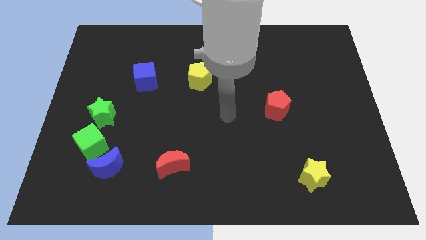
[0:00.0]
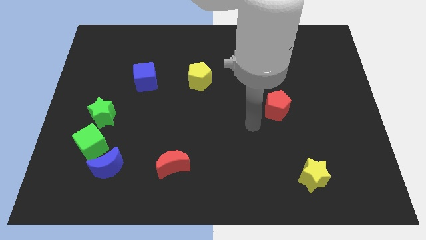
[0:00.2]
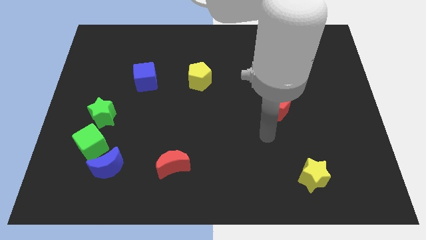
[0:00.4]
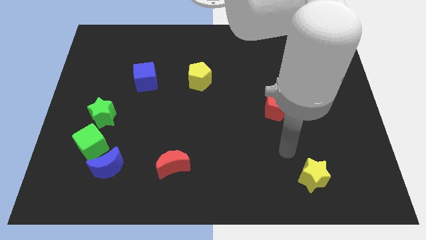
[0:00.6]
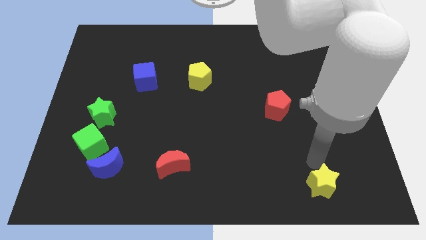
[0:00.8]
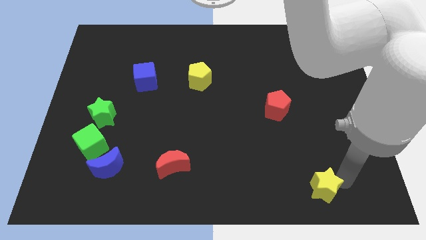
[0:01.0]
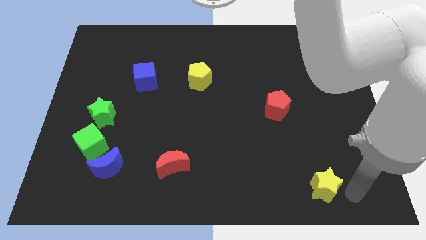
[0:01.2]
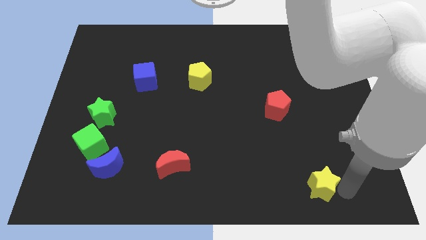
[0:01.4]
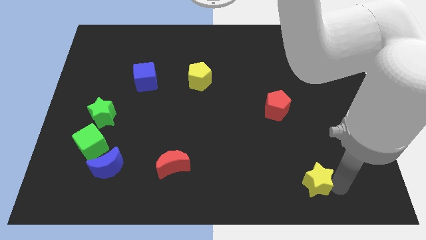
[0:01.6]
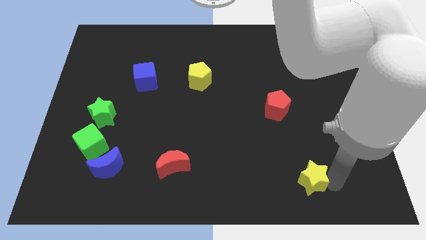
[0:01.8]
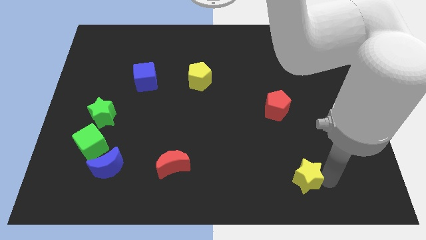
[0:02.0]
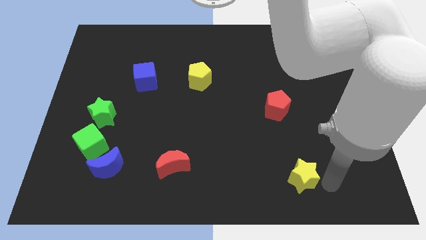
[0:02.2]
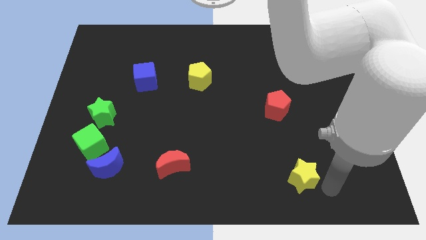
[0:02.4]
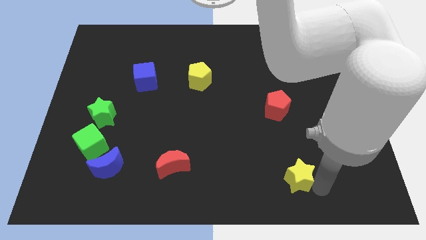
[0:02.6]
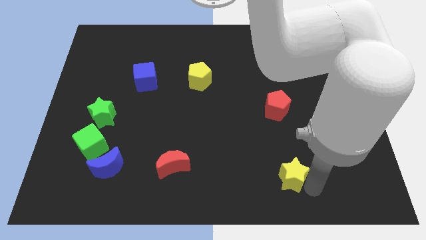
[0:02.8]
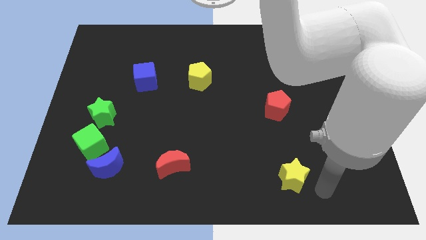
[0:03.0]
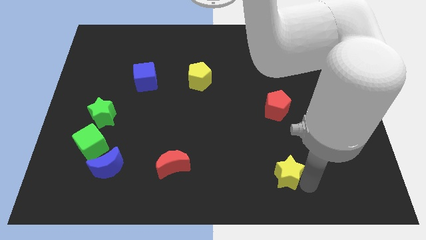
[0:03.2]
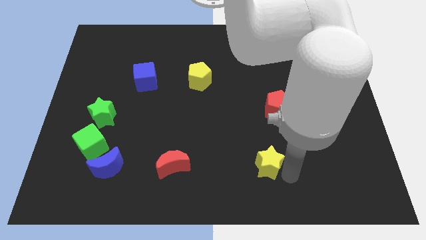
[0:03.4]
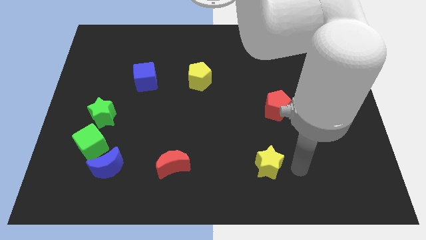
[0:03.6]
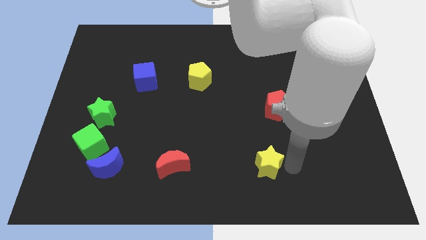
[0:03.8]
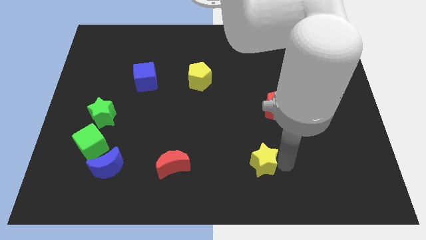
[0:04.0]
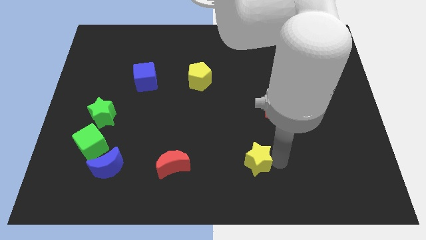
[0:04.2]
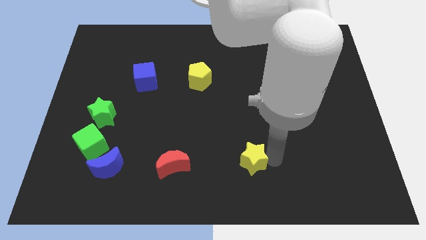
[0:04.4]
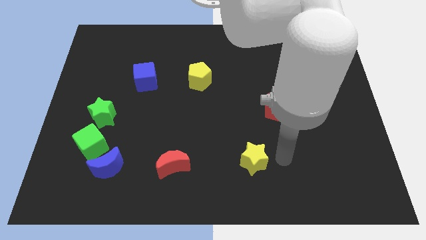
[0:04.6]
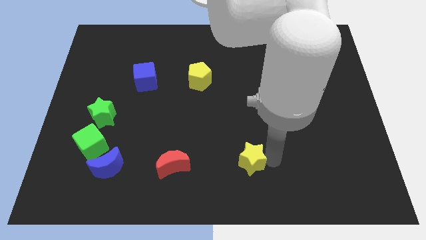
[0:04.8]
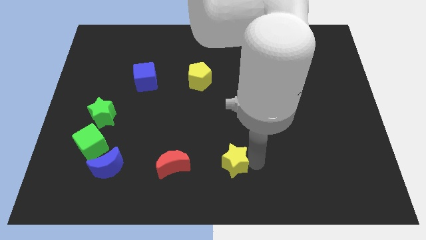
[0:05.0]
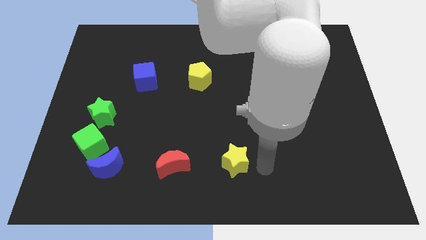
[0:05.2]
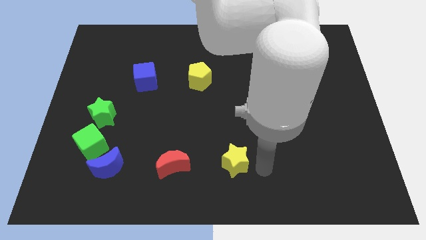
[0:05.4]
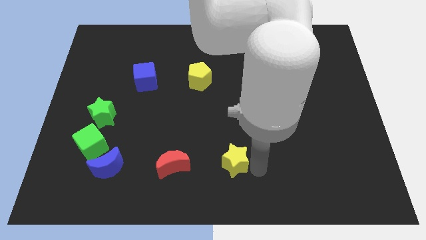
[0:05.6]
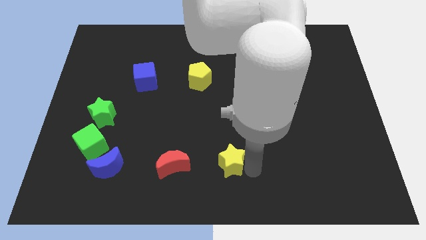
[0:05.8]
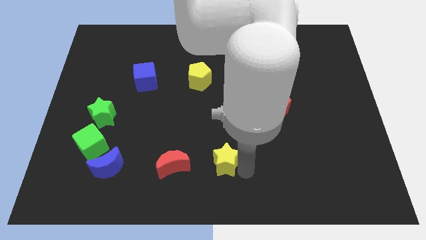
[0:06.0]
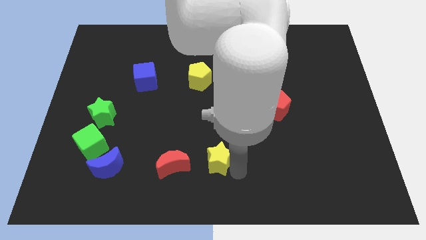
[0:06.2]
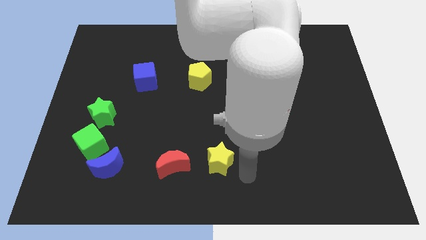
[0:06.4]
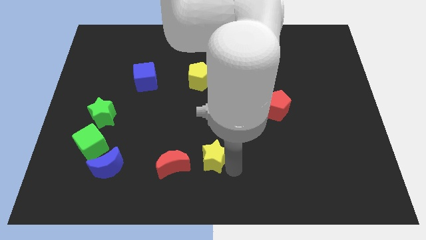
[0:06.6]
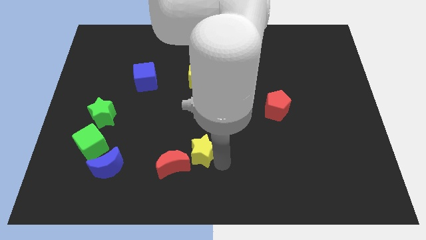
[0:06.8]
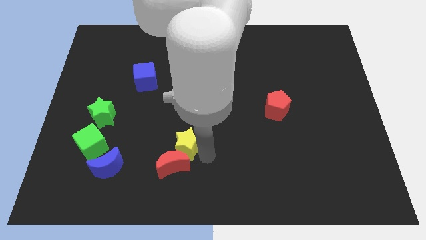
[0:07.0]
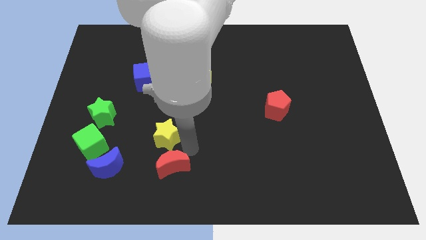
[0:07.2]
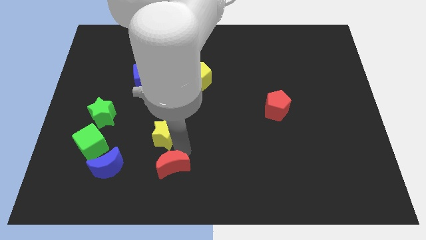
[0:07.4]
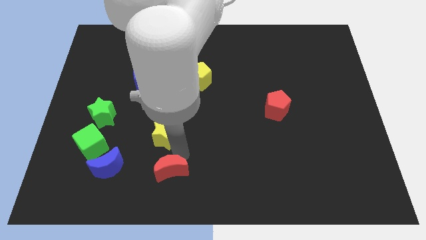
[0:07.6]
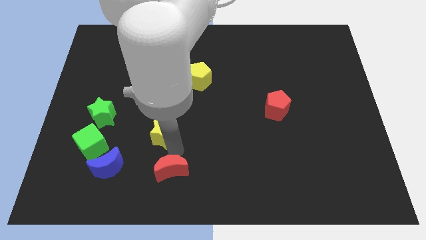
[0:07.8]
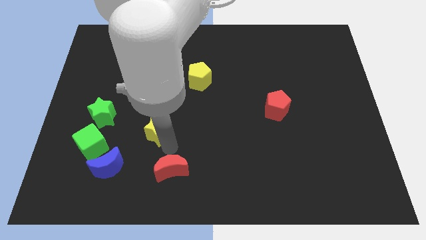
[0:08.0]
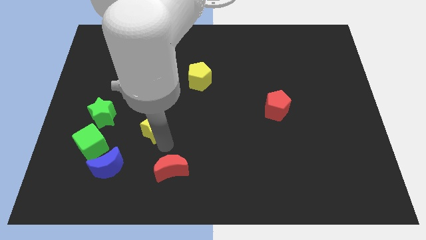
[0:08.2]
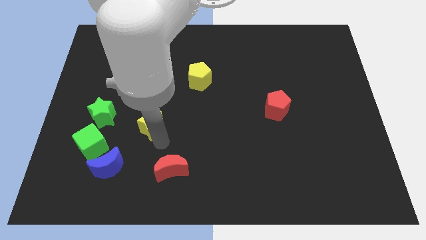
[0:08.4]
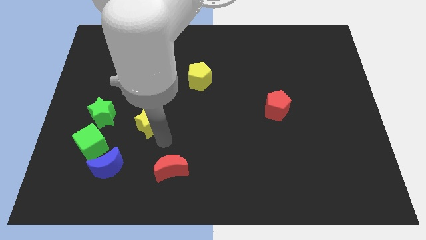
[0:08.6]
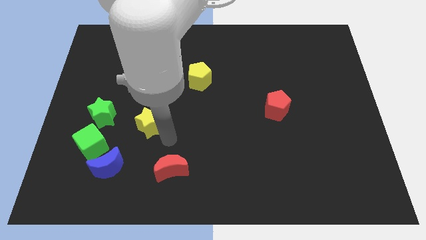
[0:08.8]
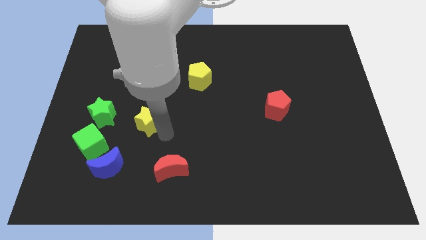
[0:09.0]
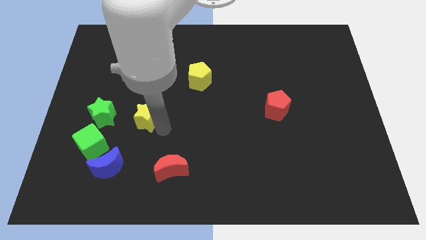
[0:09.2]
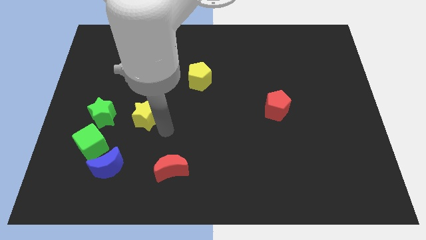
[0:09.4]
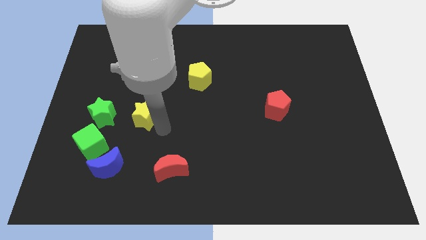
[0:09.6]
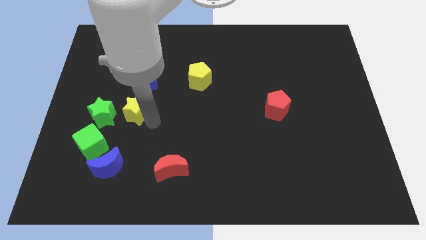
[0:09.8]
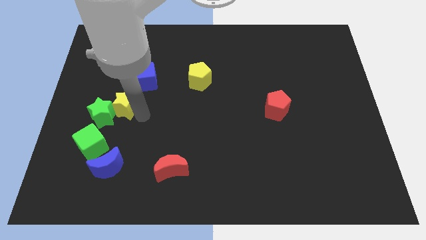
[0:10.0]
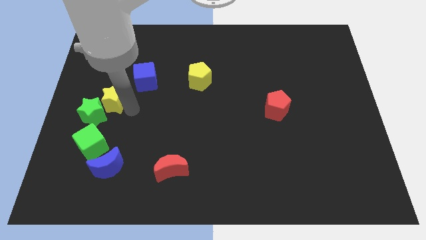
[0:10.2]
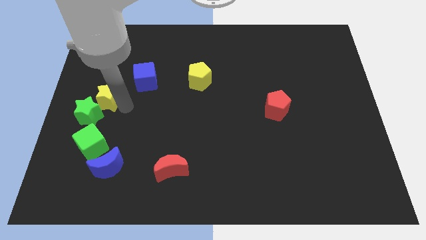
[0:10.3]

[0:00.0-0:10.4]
put the yellow star to the left side
